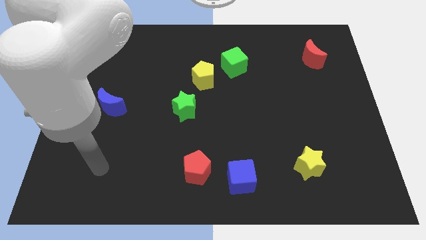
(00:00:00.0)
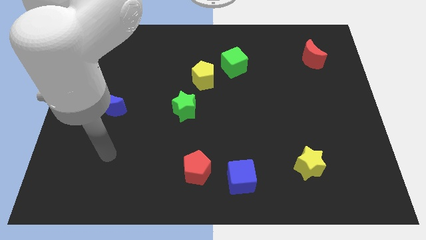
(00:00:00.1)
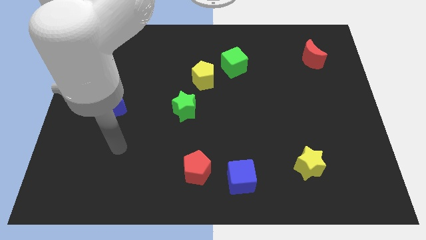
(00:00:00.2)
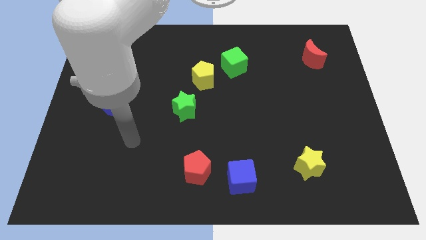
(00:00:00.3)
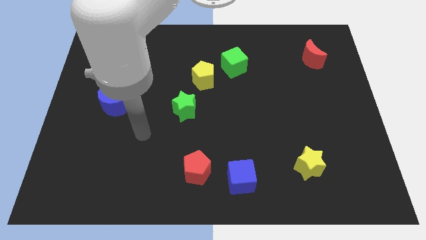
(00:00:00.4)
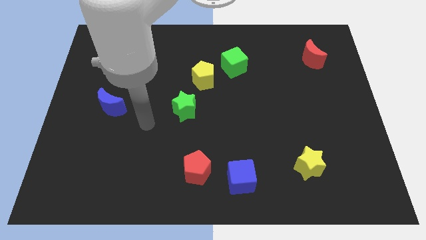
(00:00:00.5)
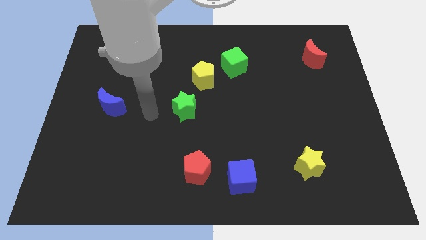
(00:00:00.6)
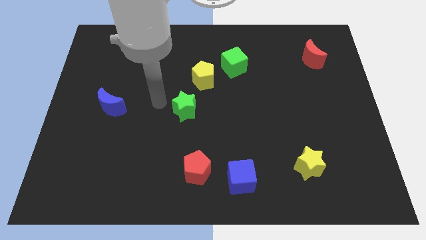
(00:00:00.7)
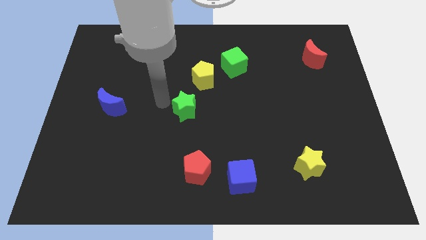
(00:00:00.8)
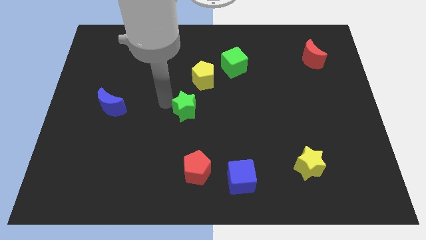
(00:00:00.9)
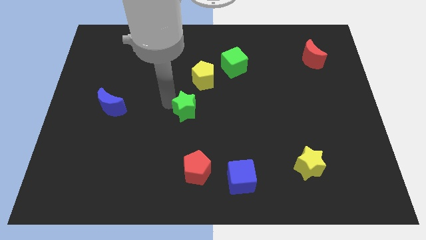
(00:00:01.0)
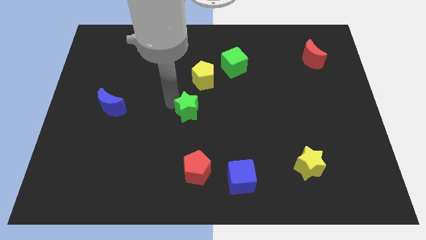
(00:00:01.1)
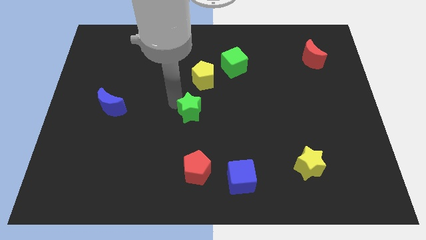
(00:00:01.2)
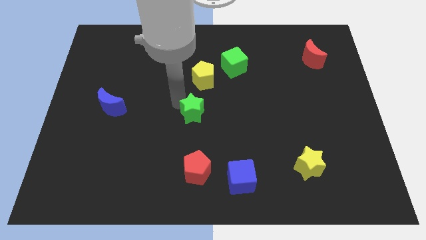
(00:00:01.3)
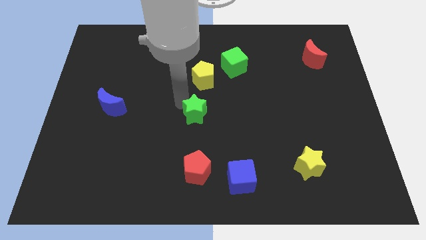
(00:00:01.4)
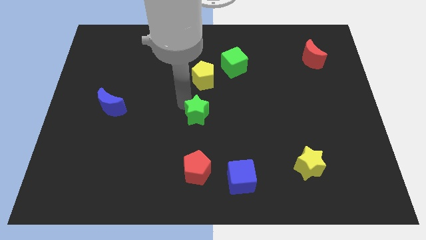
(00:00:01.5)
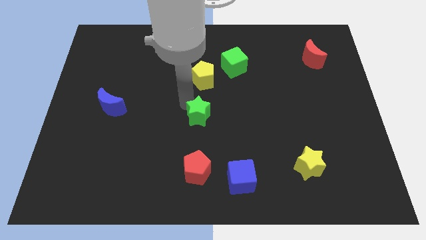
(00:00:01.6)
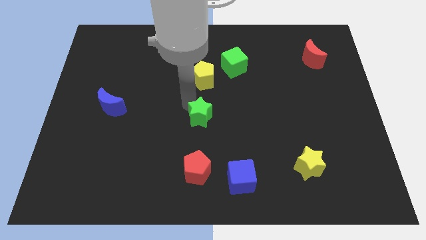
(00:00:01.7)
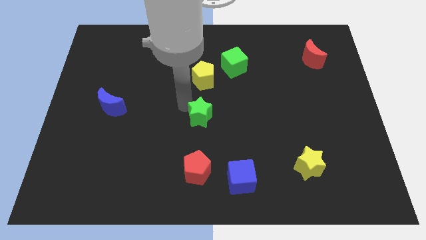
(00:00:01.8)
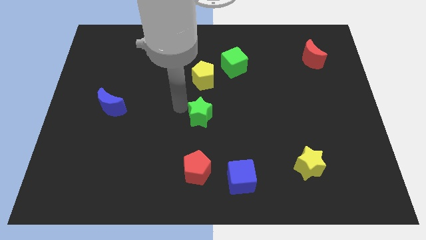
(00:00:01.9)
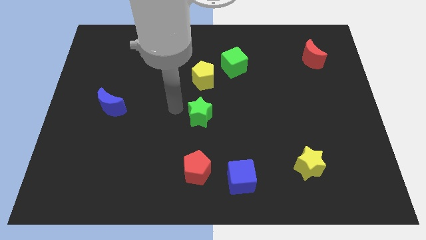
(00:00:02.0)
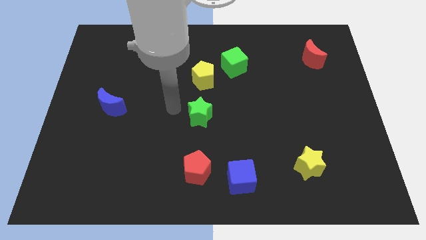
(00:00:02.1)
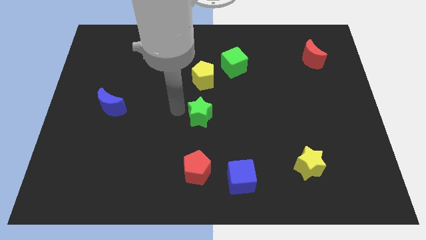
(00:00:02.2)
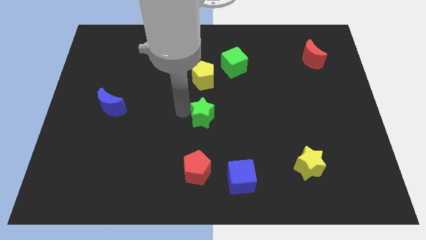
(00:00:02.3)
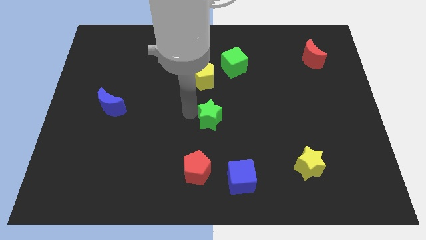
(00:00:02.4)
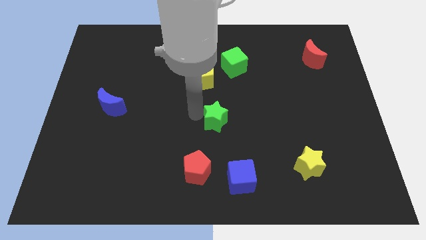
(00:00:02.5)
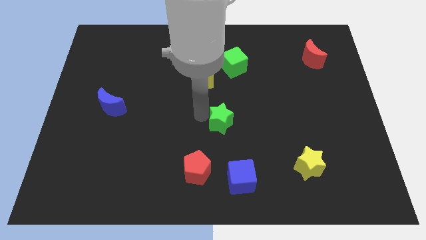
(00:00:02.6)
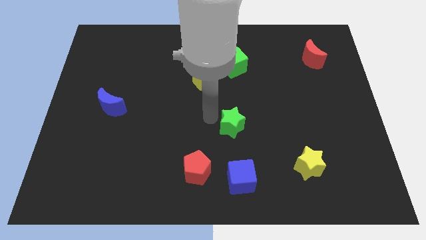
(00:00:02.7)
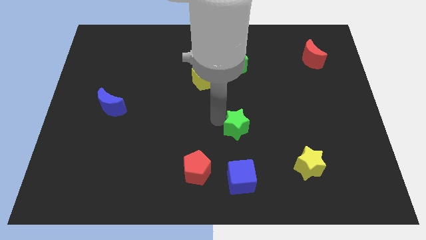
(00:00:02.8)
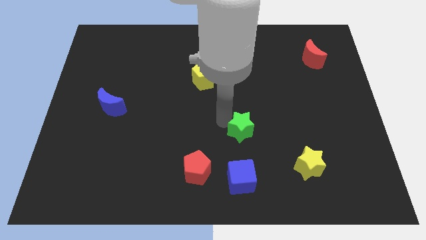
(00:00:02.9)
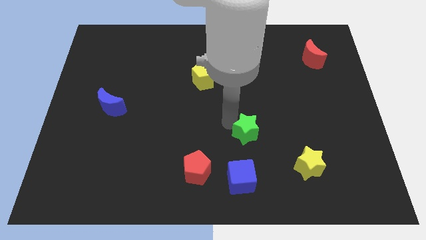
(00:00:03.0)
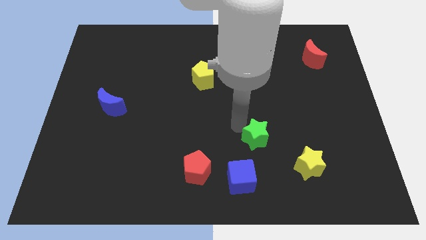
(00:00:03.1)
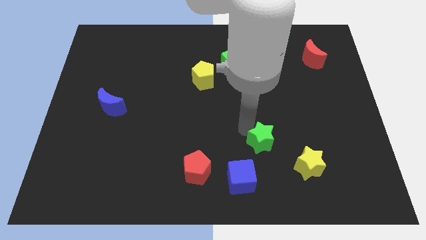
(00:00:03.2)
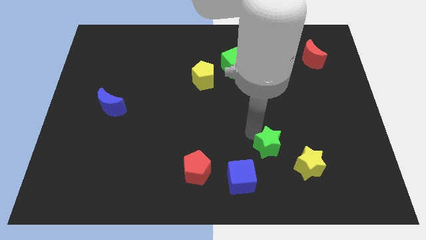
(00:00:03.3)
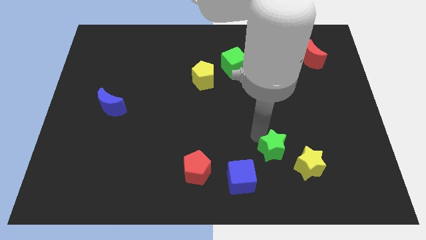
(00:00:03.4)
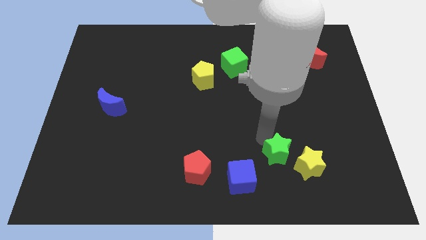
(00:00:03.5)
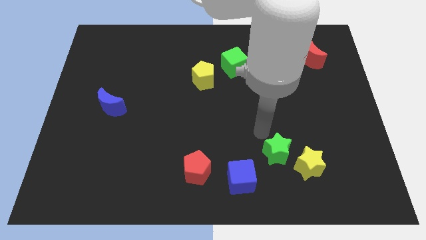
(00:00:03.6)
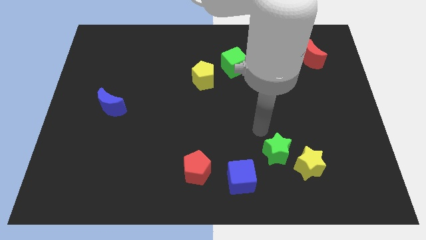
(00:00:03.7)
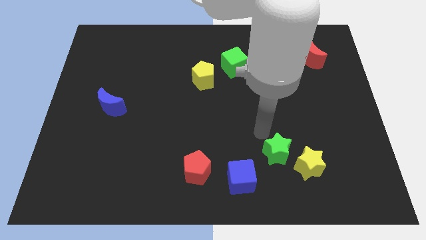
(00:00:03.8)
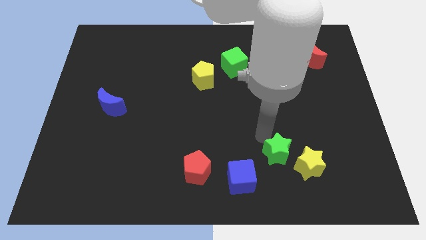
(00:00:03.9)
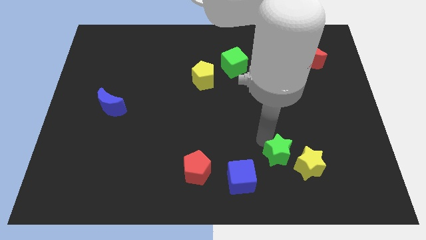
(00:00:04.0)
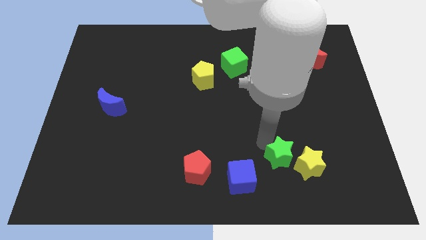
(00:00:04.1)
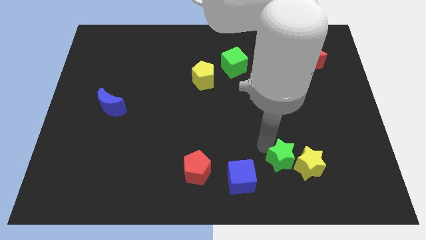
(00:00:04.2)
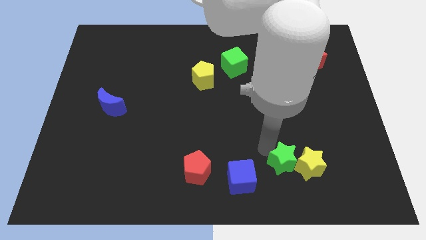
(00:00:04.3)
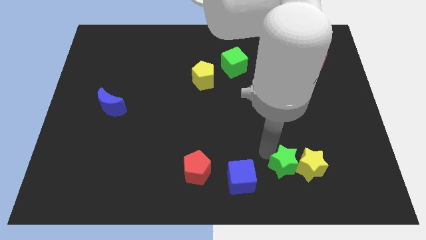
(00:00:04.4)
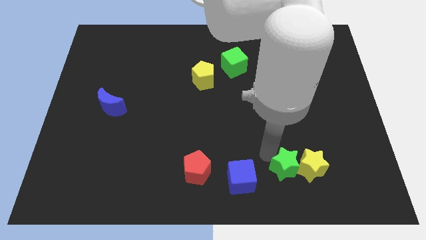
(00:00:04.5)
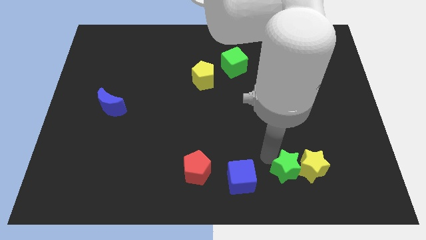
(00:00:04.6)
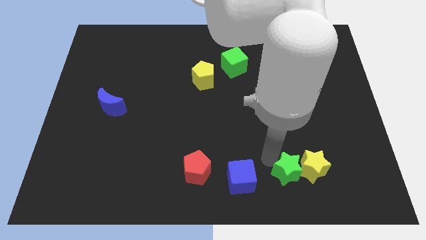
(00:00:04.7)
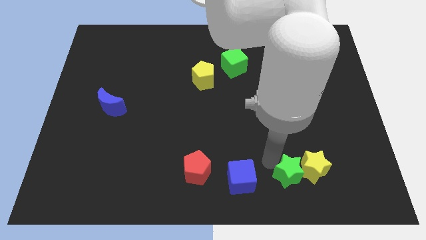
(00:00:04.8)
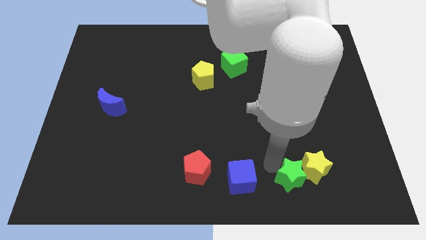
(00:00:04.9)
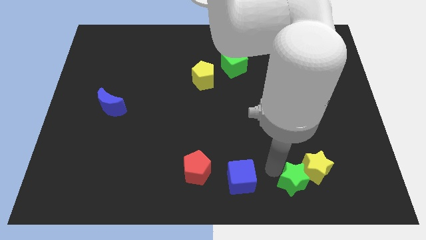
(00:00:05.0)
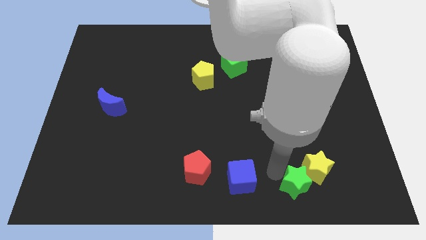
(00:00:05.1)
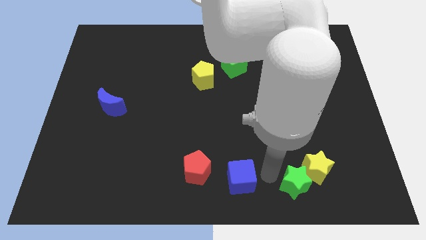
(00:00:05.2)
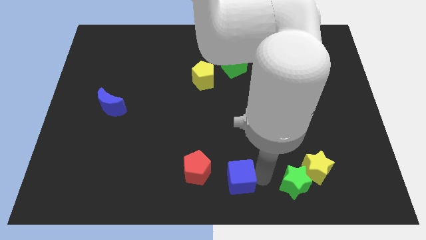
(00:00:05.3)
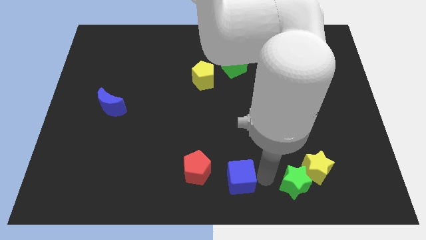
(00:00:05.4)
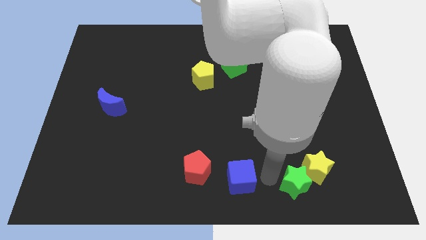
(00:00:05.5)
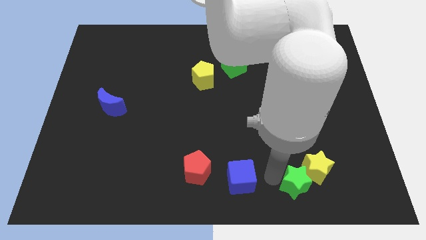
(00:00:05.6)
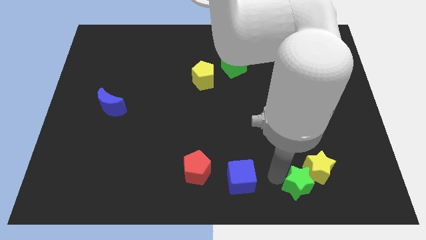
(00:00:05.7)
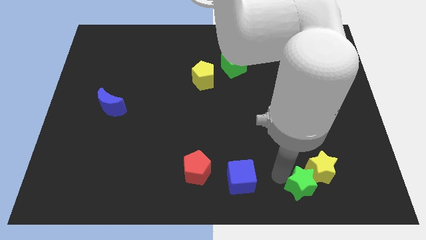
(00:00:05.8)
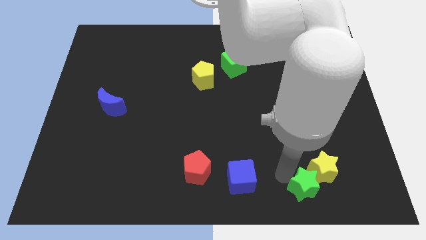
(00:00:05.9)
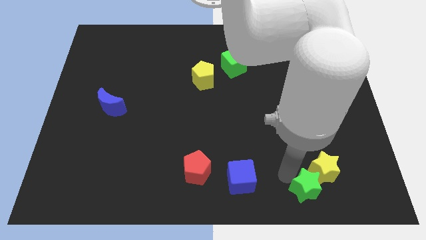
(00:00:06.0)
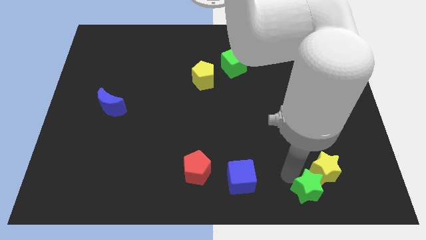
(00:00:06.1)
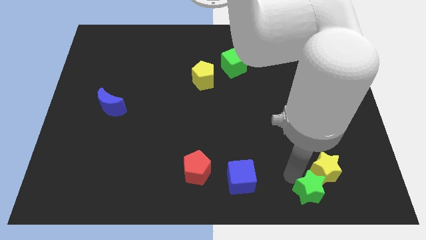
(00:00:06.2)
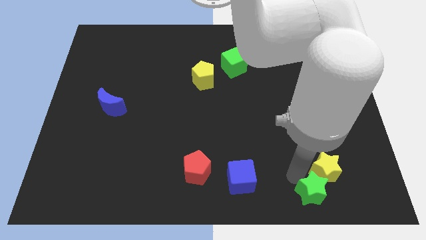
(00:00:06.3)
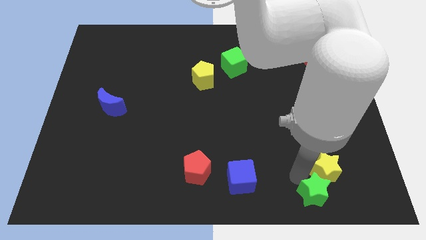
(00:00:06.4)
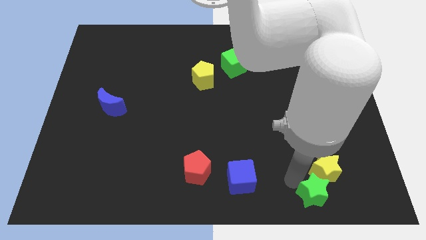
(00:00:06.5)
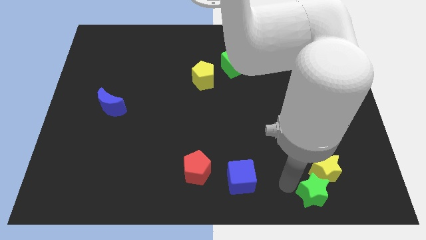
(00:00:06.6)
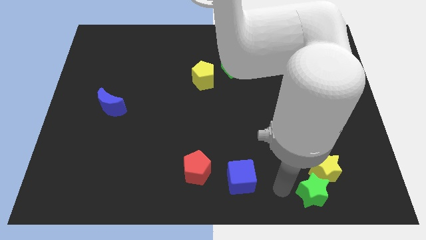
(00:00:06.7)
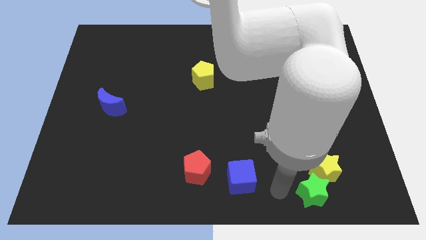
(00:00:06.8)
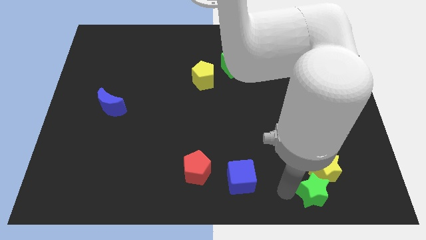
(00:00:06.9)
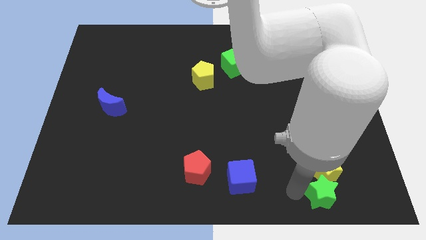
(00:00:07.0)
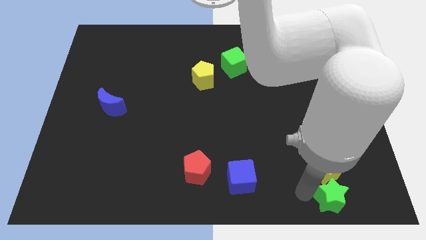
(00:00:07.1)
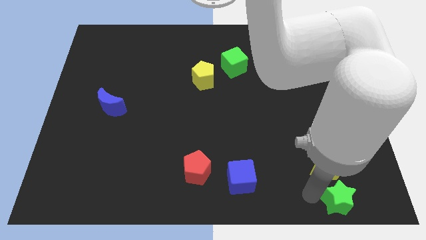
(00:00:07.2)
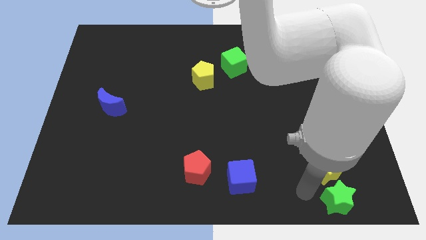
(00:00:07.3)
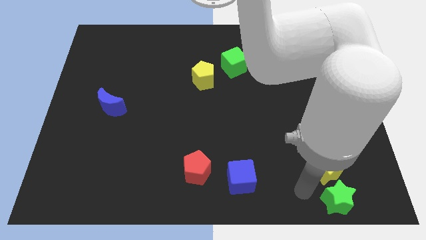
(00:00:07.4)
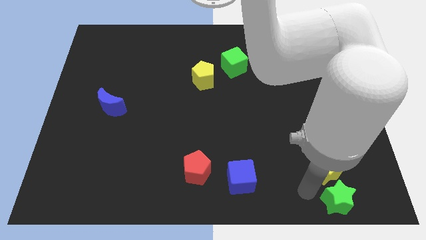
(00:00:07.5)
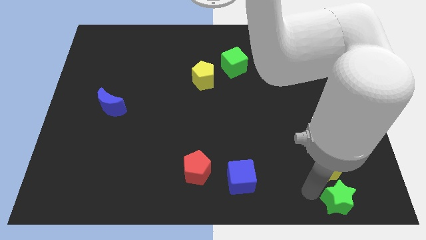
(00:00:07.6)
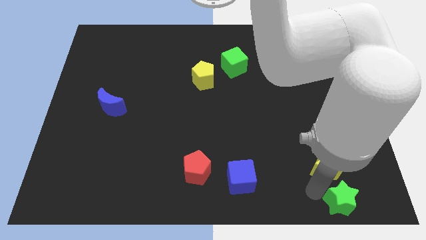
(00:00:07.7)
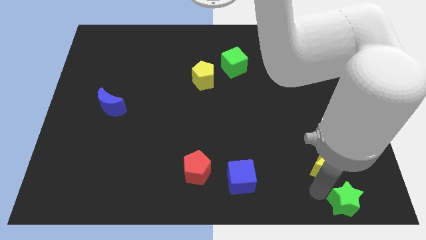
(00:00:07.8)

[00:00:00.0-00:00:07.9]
slide the green star to the bottom right of the board
